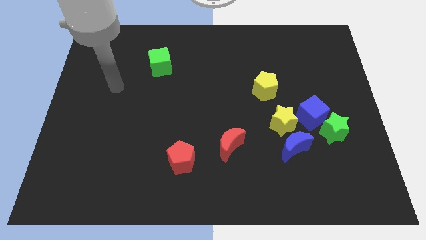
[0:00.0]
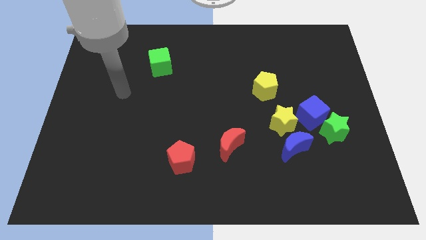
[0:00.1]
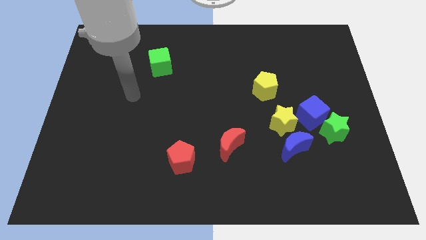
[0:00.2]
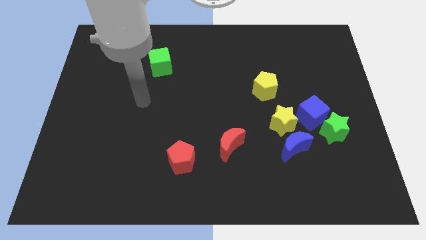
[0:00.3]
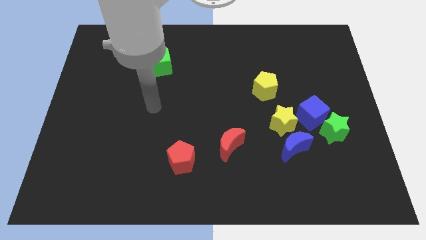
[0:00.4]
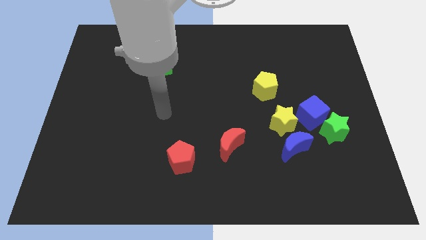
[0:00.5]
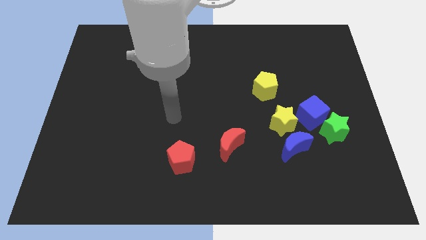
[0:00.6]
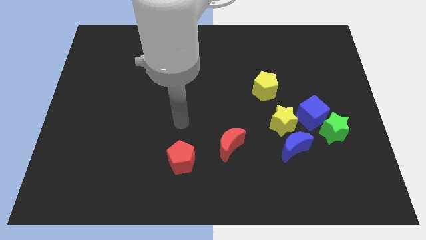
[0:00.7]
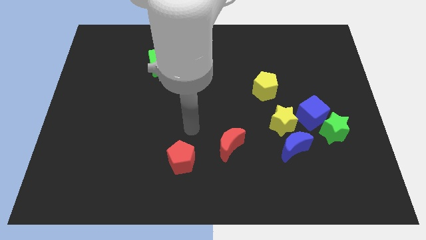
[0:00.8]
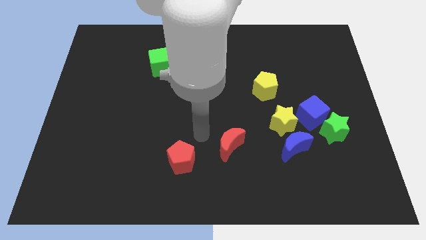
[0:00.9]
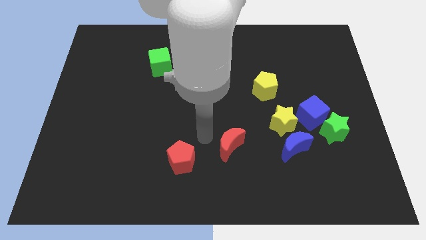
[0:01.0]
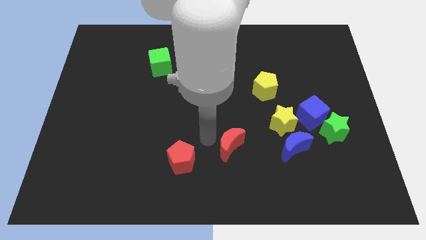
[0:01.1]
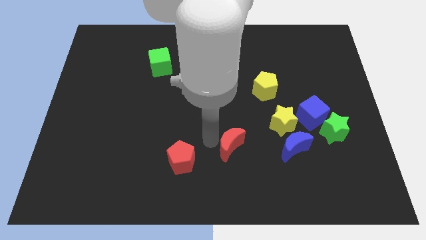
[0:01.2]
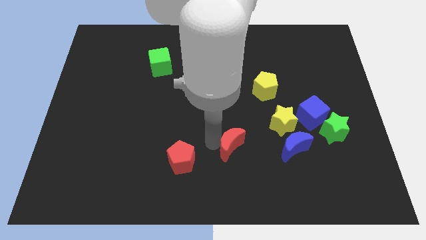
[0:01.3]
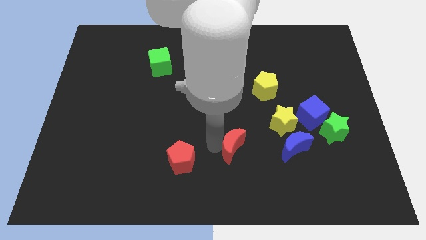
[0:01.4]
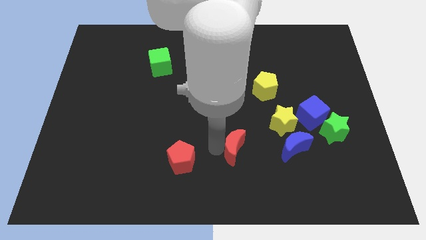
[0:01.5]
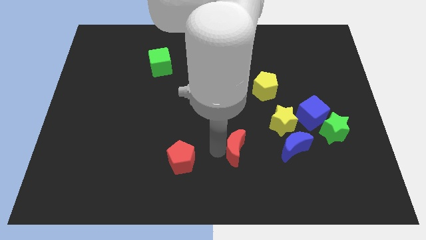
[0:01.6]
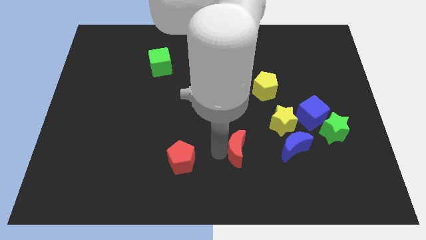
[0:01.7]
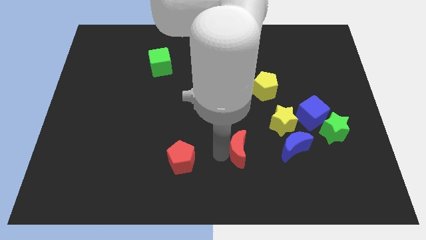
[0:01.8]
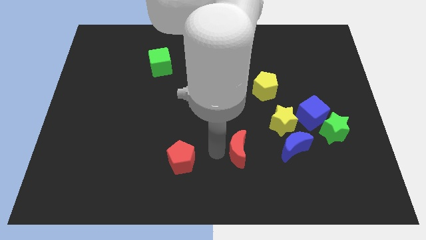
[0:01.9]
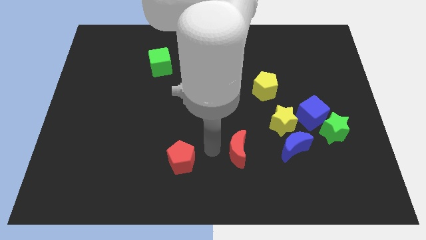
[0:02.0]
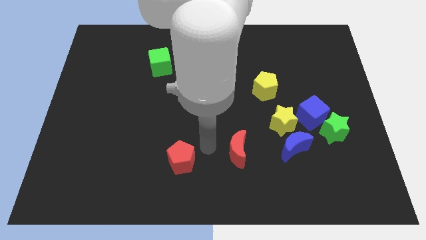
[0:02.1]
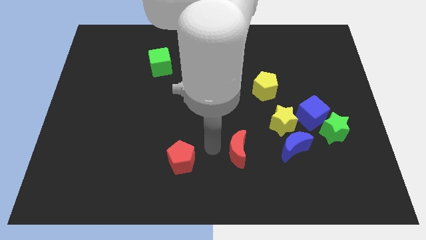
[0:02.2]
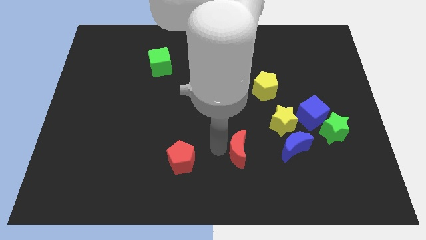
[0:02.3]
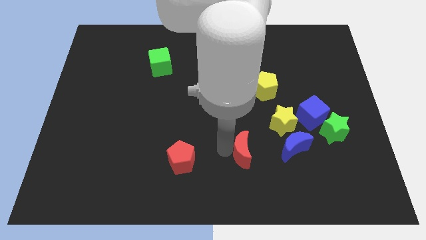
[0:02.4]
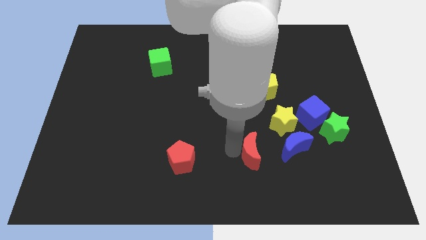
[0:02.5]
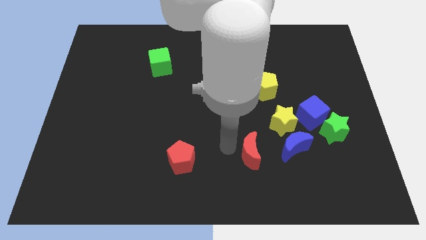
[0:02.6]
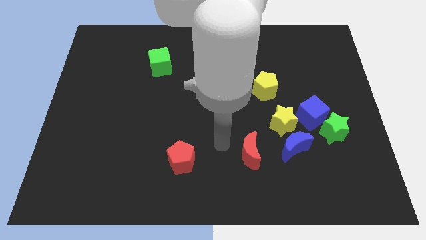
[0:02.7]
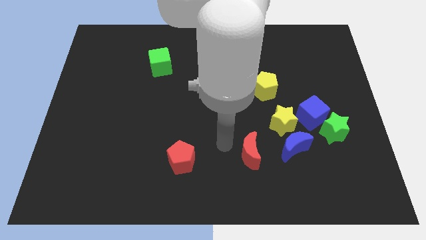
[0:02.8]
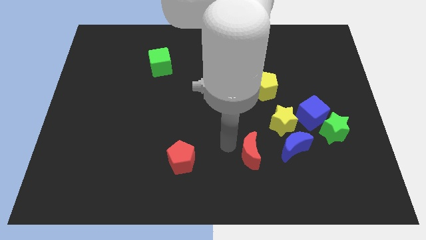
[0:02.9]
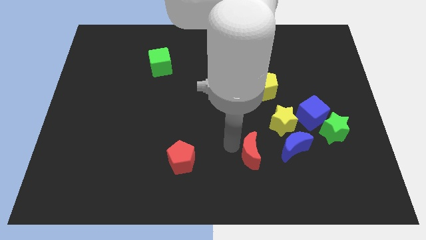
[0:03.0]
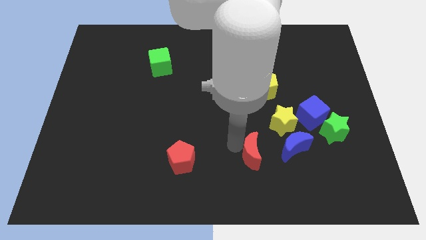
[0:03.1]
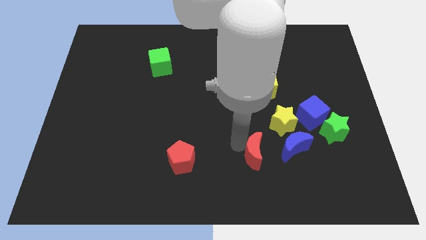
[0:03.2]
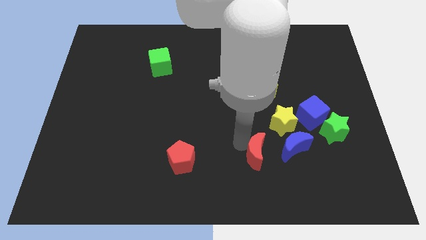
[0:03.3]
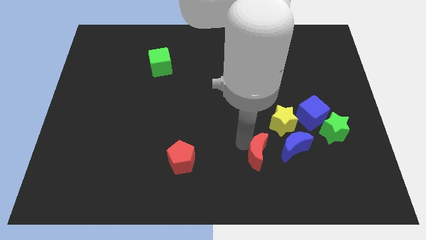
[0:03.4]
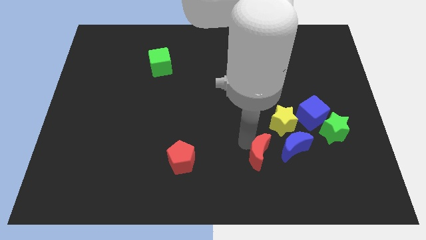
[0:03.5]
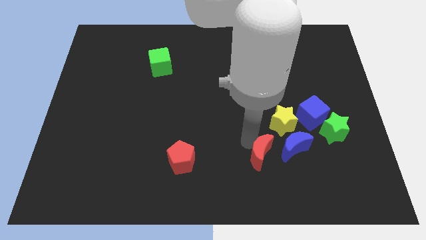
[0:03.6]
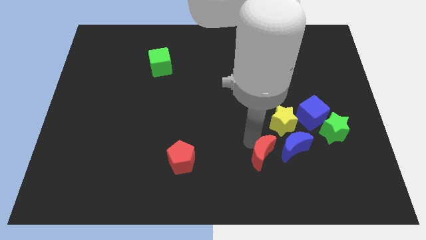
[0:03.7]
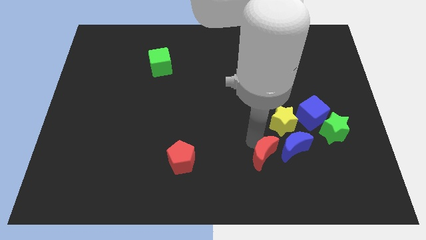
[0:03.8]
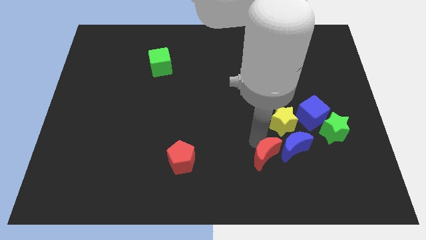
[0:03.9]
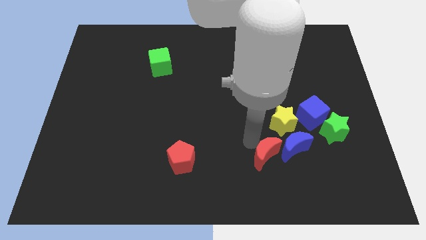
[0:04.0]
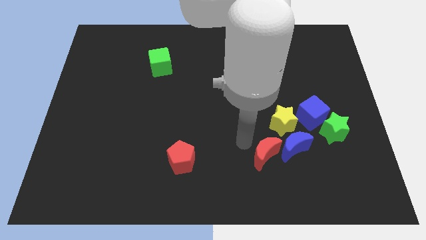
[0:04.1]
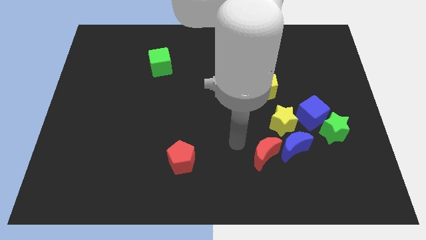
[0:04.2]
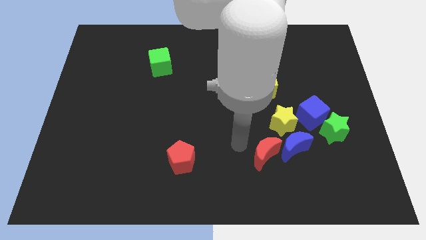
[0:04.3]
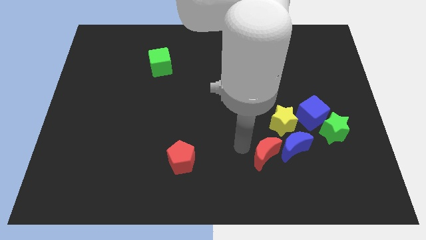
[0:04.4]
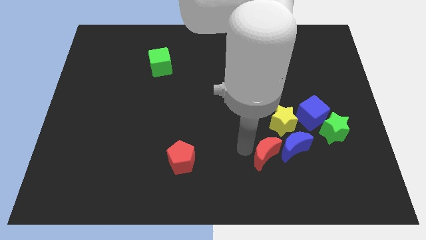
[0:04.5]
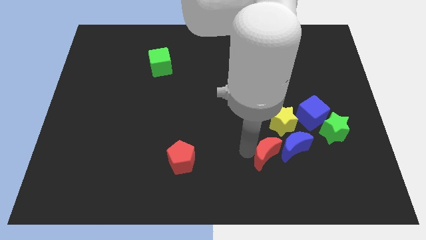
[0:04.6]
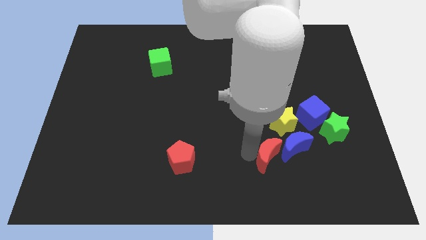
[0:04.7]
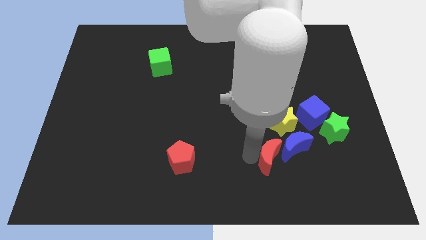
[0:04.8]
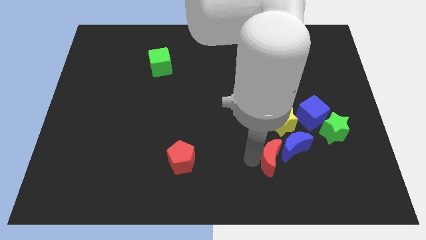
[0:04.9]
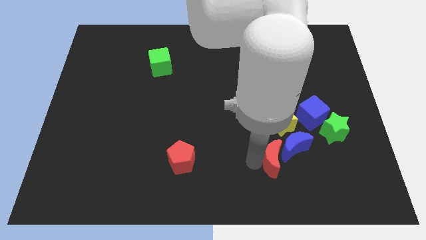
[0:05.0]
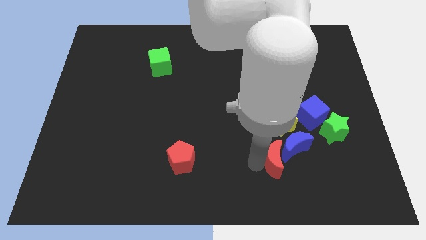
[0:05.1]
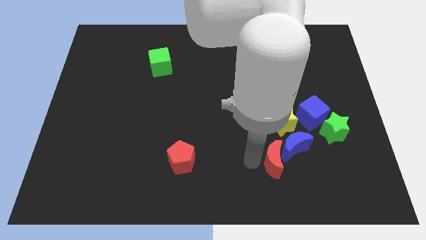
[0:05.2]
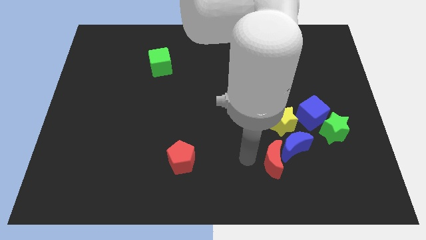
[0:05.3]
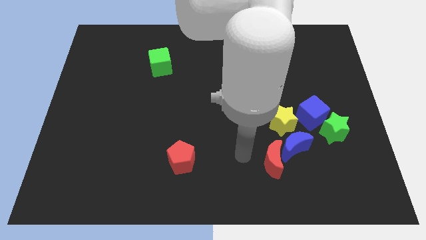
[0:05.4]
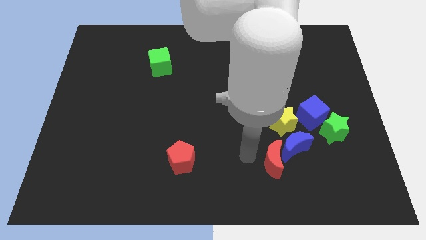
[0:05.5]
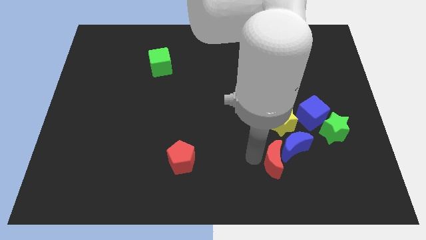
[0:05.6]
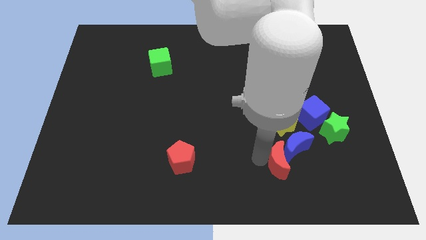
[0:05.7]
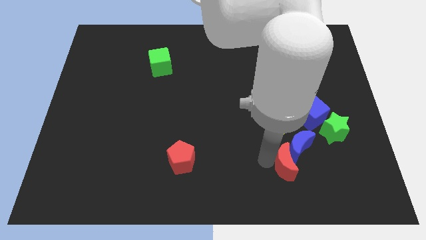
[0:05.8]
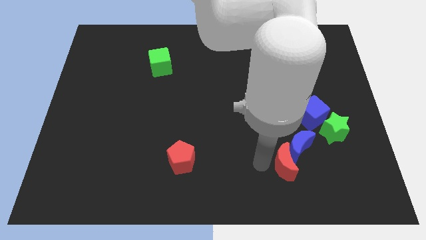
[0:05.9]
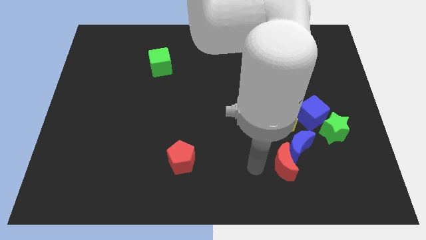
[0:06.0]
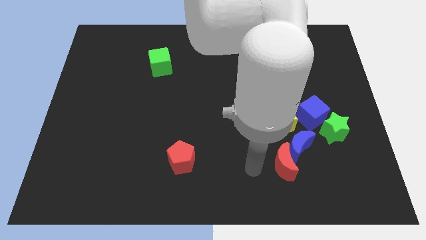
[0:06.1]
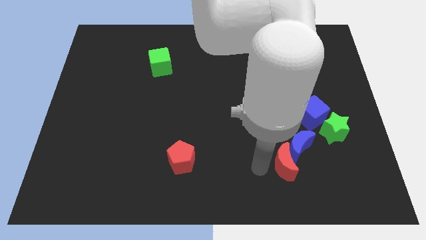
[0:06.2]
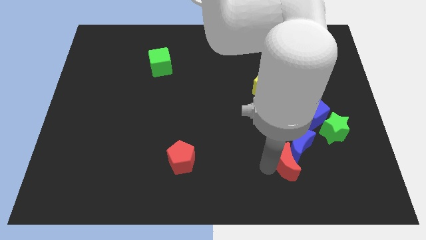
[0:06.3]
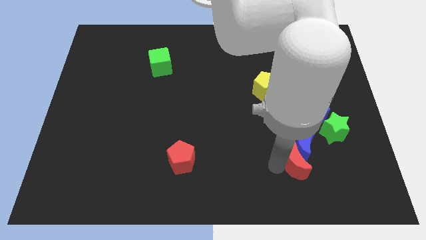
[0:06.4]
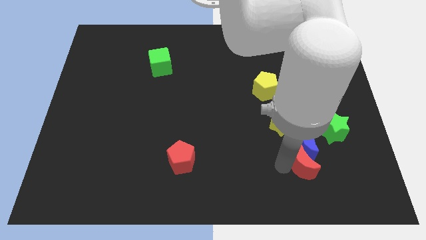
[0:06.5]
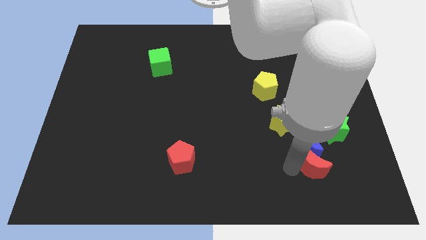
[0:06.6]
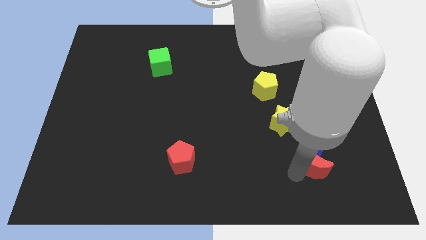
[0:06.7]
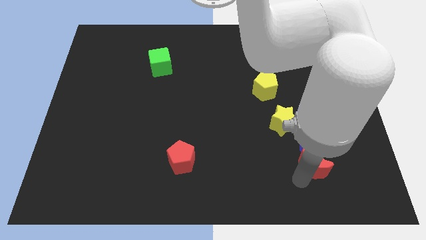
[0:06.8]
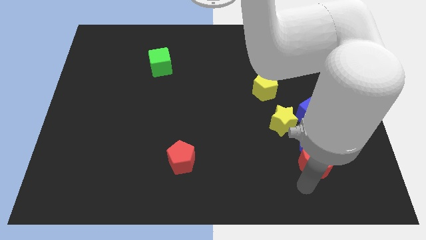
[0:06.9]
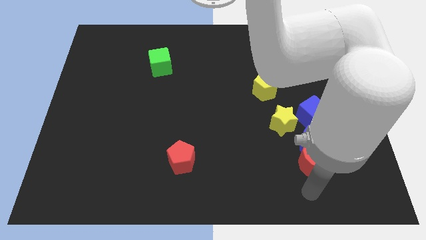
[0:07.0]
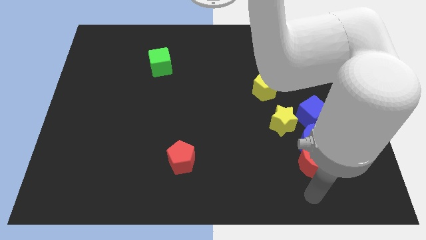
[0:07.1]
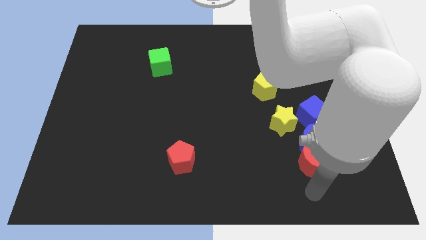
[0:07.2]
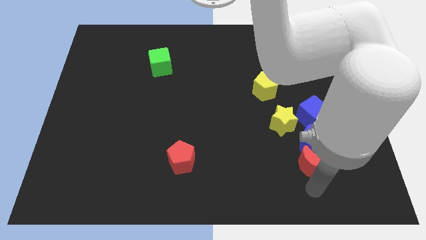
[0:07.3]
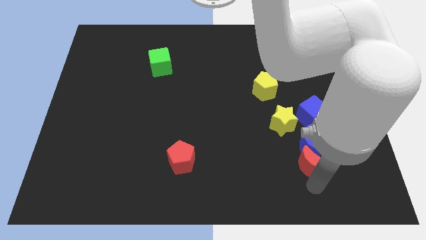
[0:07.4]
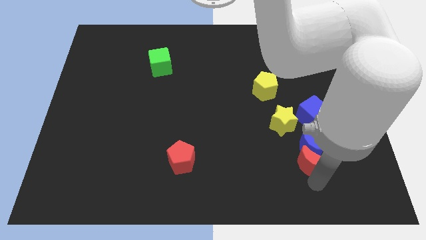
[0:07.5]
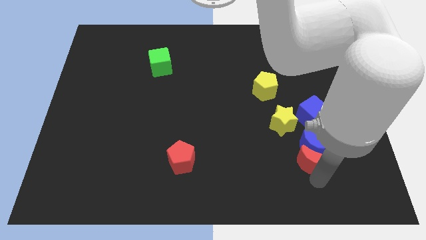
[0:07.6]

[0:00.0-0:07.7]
move the red moon to the bottom right side of the yellow star
